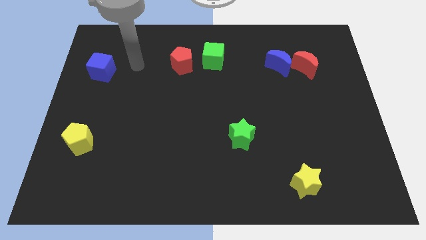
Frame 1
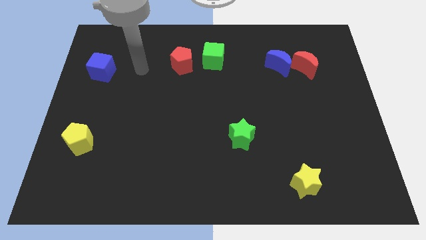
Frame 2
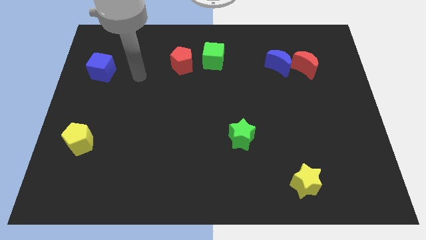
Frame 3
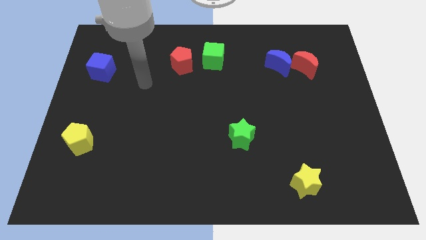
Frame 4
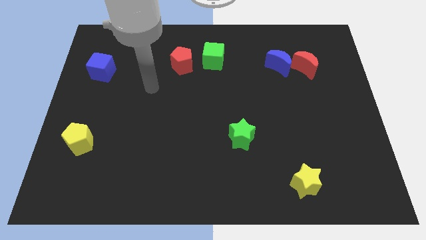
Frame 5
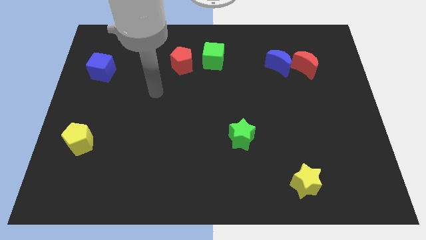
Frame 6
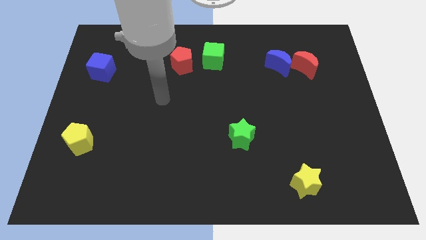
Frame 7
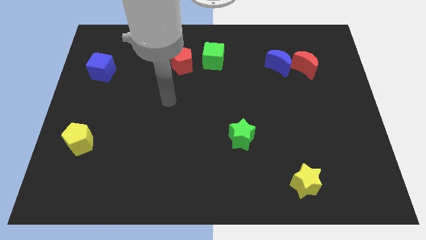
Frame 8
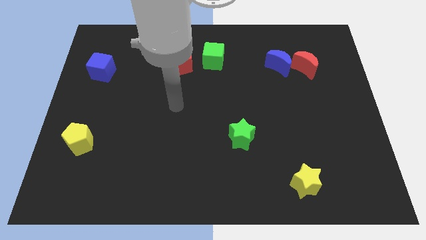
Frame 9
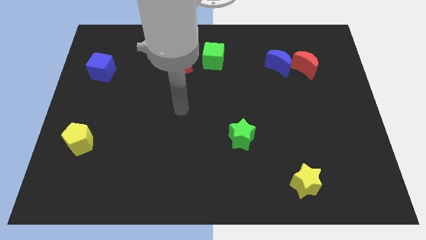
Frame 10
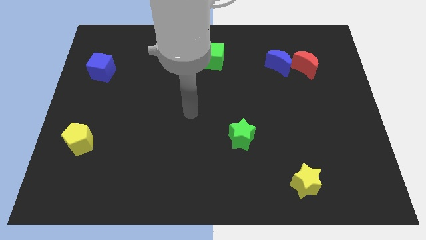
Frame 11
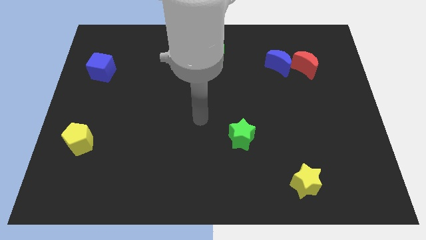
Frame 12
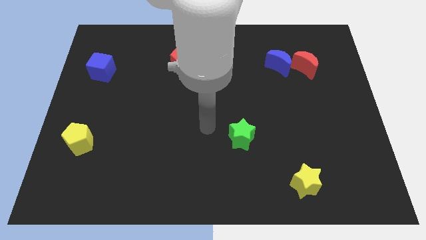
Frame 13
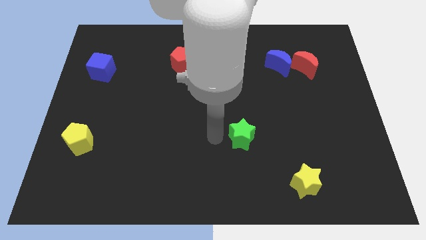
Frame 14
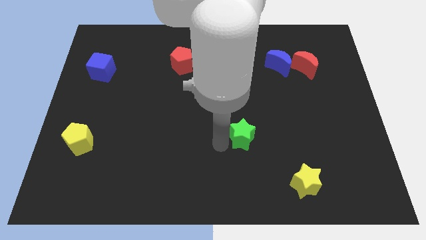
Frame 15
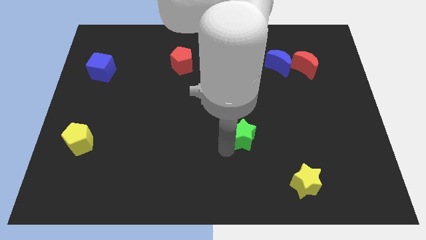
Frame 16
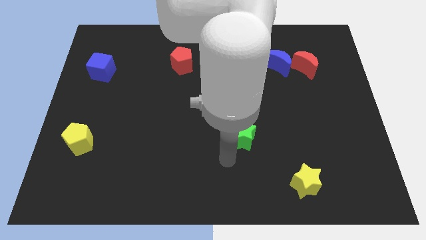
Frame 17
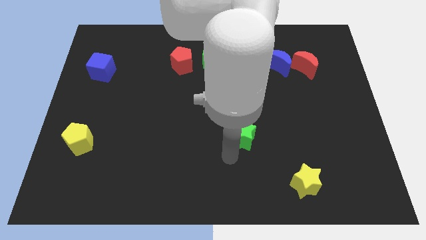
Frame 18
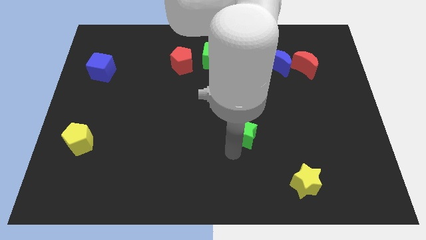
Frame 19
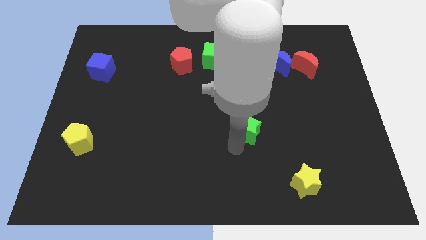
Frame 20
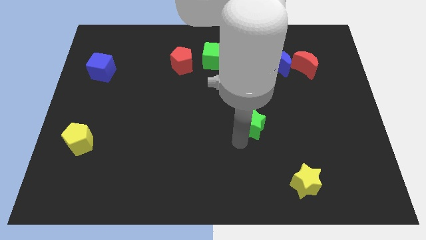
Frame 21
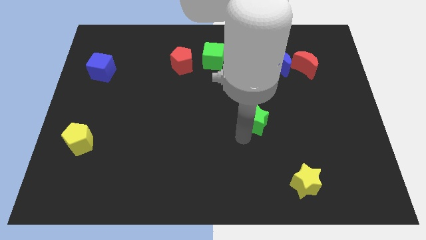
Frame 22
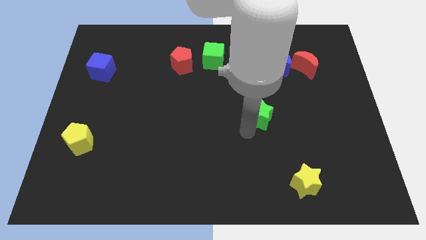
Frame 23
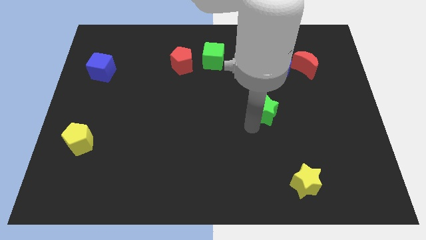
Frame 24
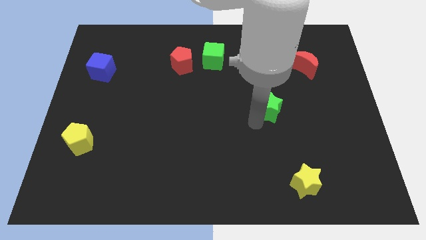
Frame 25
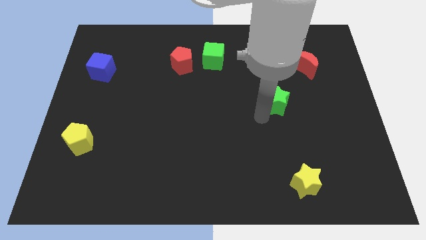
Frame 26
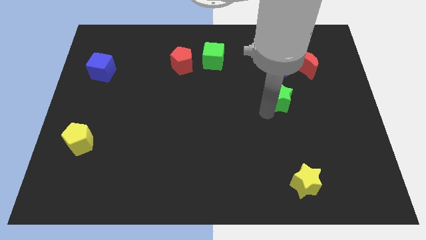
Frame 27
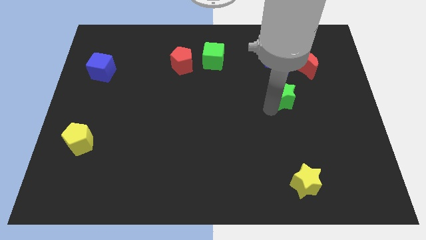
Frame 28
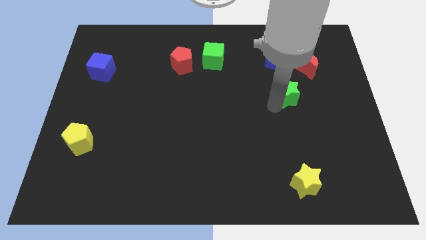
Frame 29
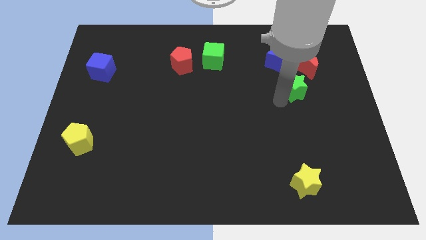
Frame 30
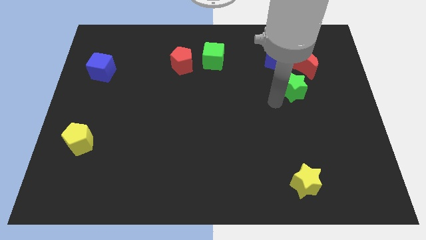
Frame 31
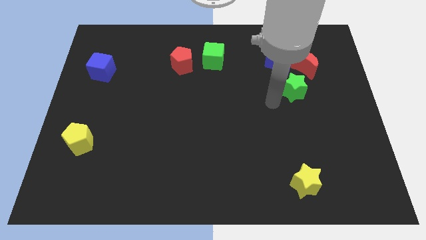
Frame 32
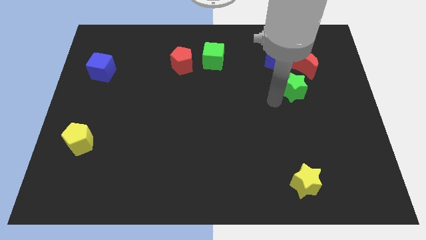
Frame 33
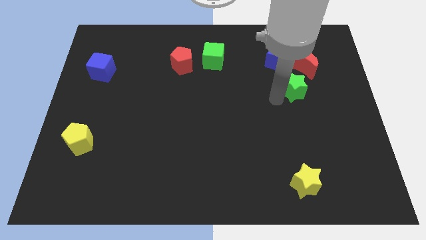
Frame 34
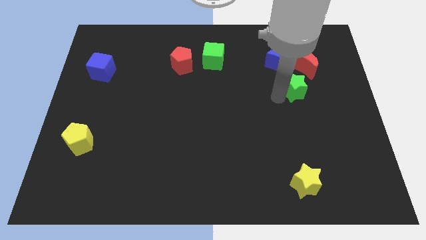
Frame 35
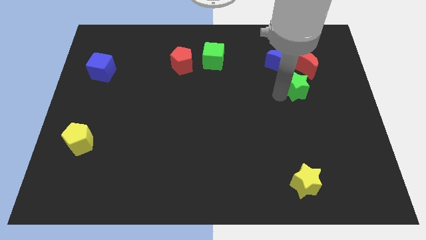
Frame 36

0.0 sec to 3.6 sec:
push the green star up and then right

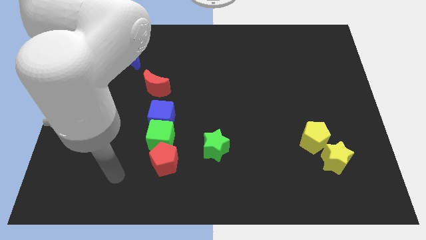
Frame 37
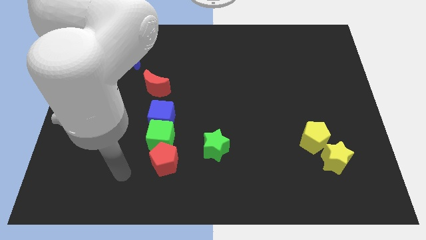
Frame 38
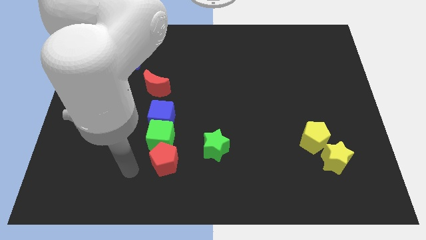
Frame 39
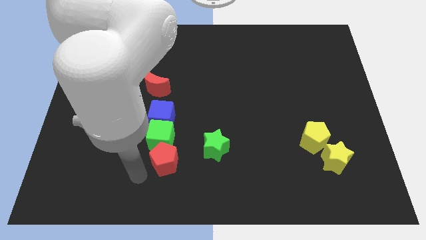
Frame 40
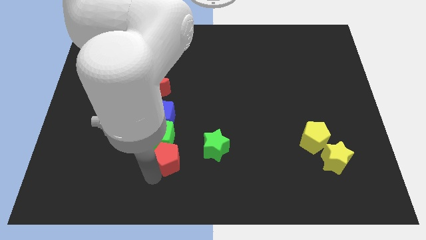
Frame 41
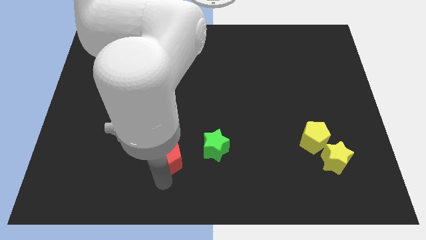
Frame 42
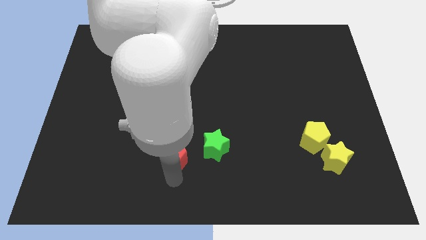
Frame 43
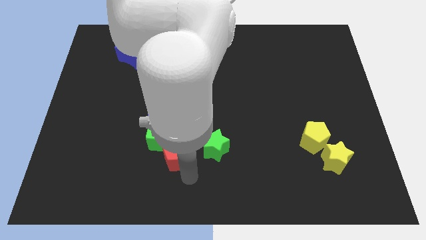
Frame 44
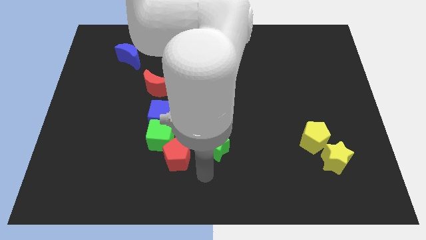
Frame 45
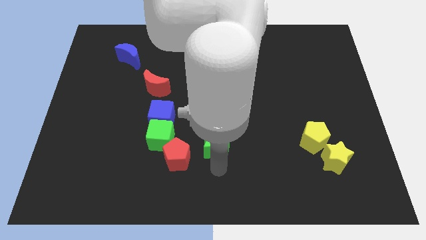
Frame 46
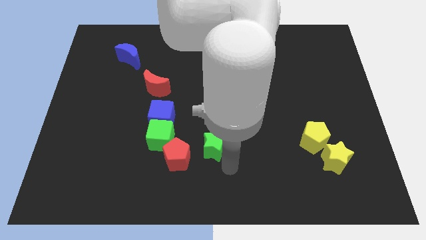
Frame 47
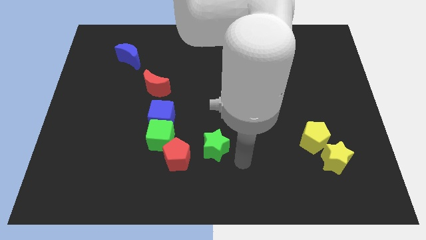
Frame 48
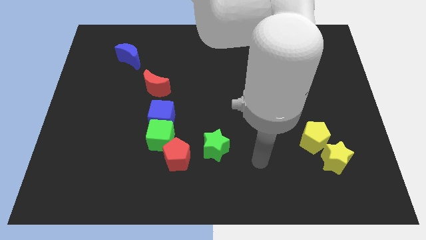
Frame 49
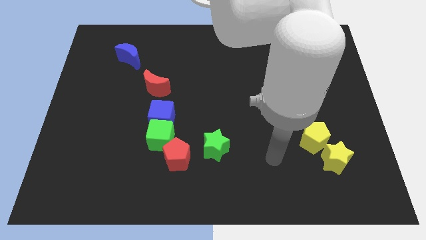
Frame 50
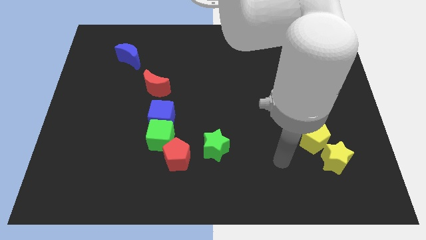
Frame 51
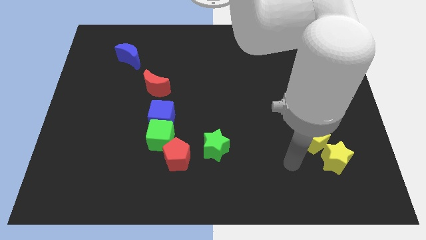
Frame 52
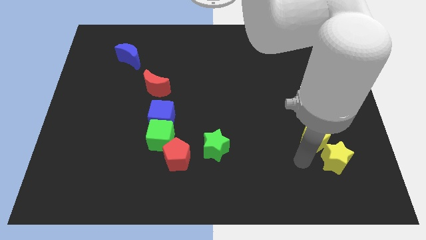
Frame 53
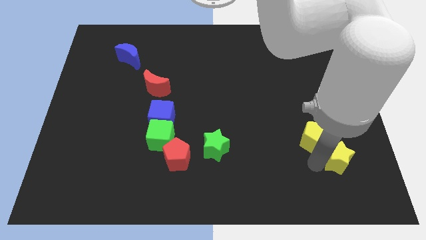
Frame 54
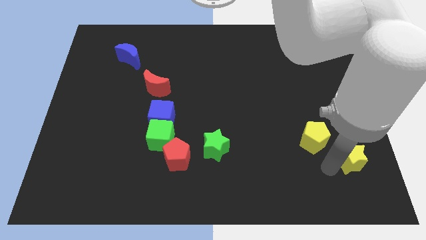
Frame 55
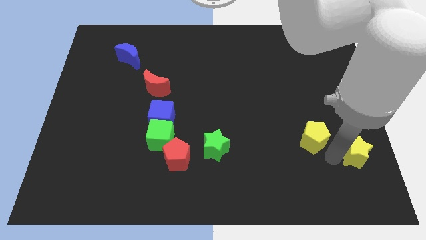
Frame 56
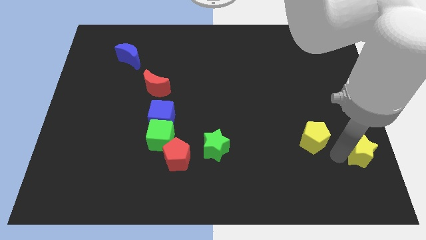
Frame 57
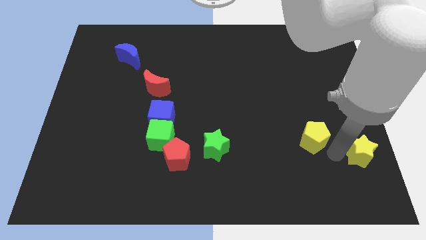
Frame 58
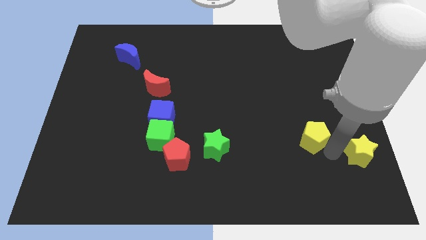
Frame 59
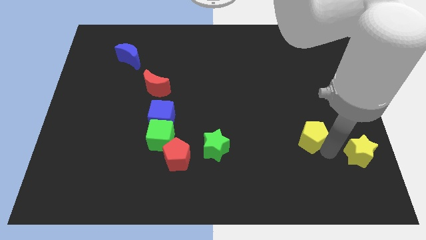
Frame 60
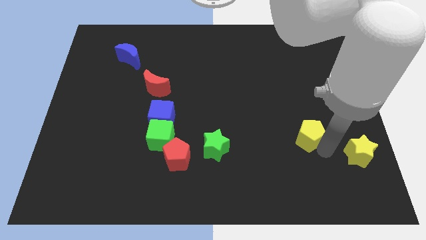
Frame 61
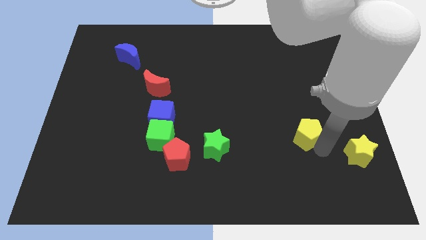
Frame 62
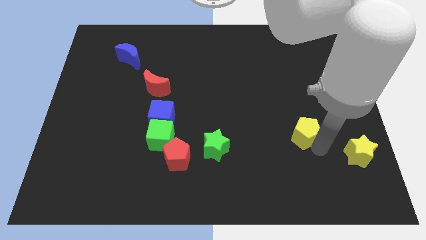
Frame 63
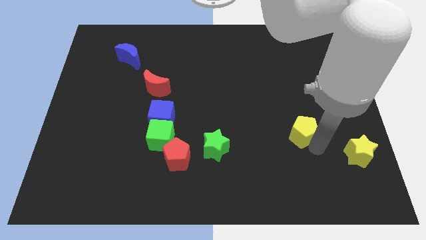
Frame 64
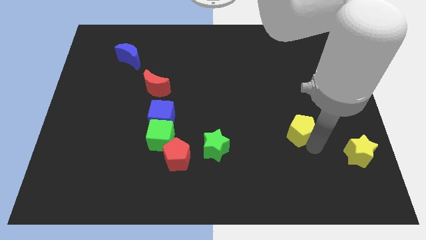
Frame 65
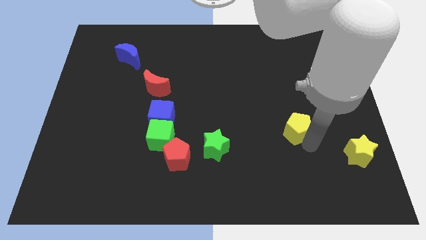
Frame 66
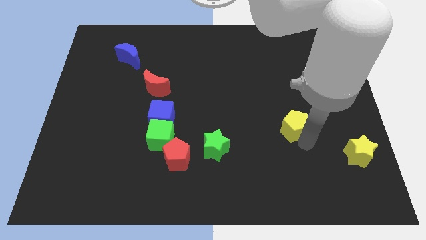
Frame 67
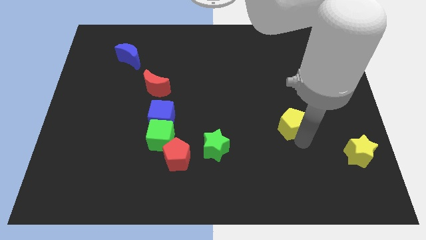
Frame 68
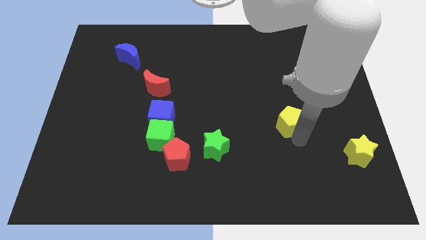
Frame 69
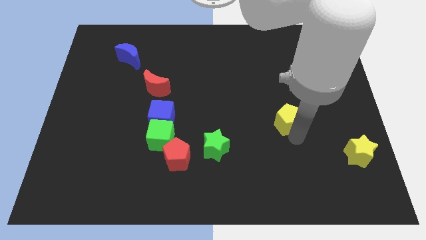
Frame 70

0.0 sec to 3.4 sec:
slightly move the yellow pentagon up and to the left

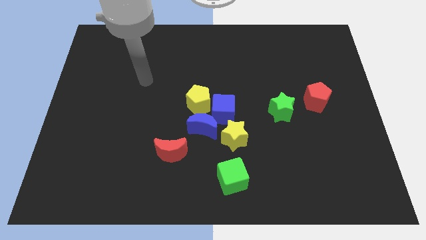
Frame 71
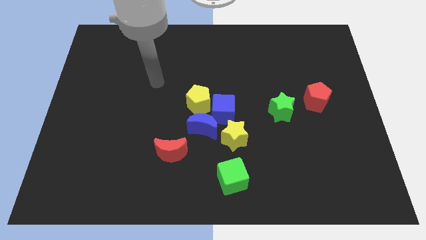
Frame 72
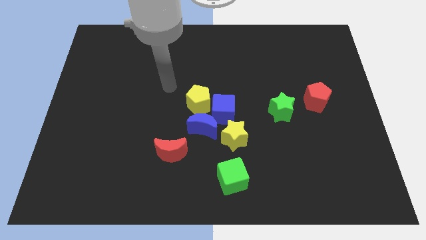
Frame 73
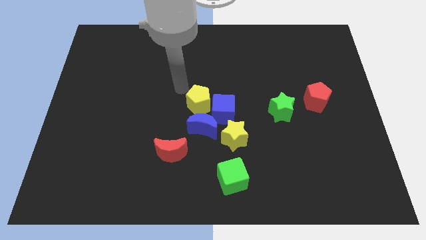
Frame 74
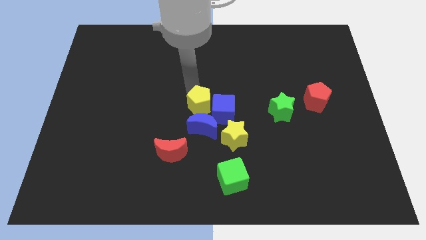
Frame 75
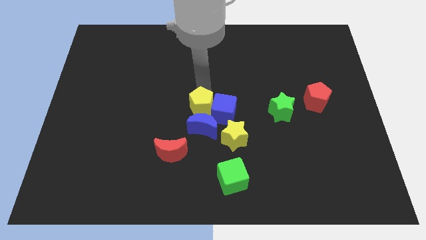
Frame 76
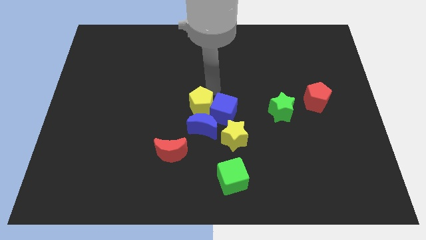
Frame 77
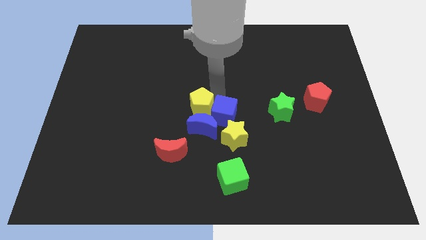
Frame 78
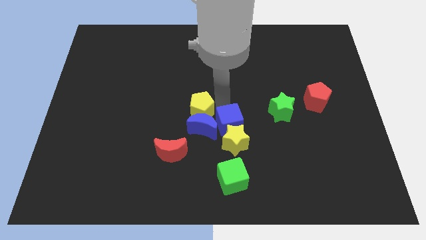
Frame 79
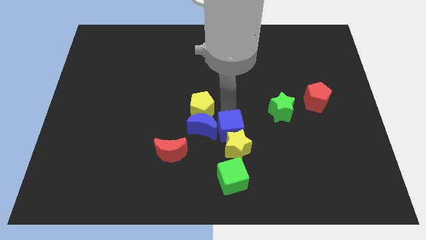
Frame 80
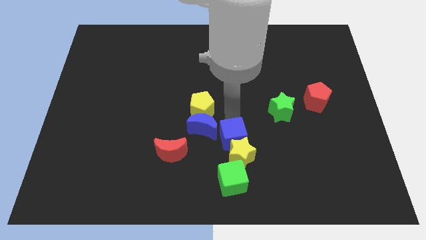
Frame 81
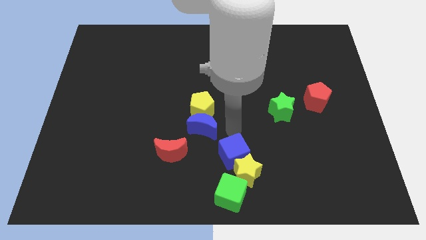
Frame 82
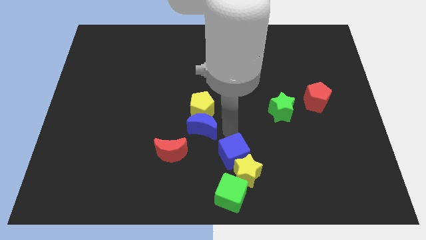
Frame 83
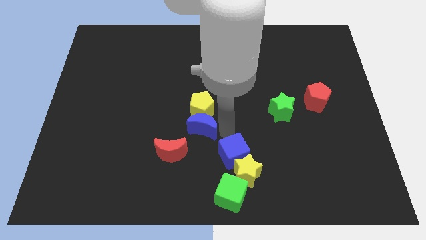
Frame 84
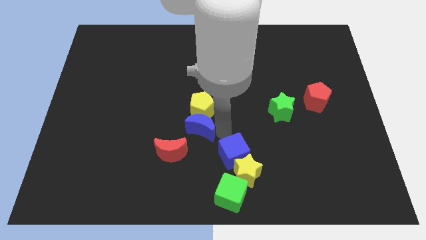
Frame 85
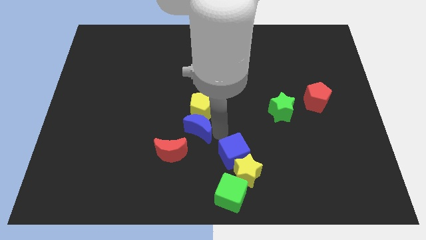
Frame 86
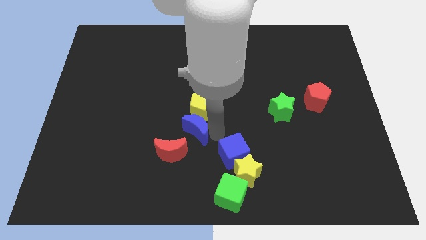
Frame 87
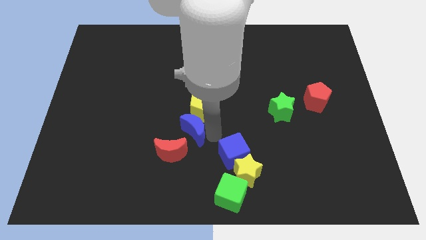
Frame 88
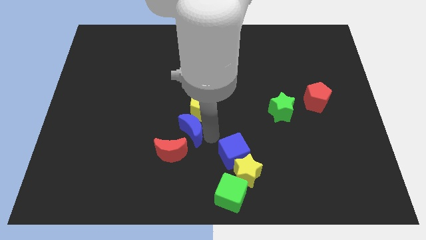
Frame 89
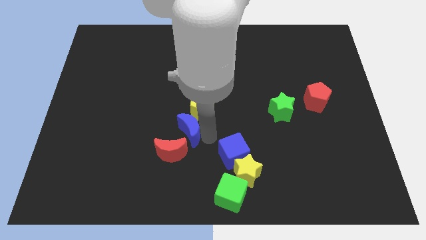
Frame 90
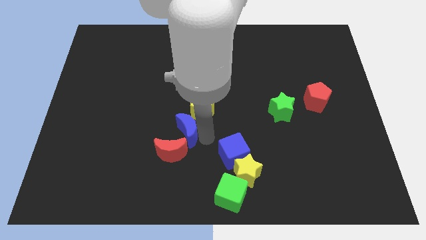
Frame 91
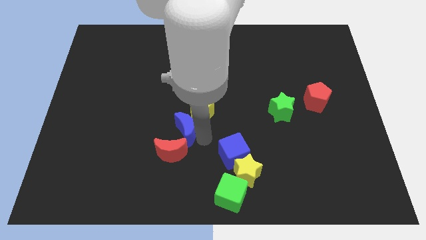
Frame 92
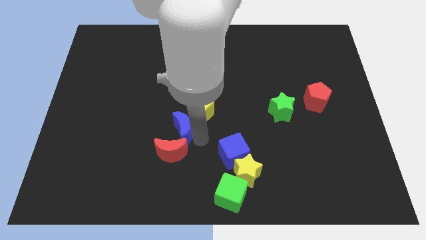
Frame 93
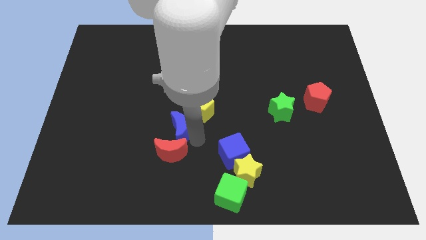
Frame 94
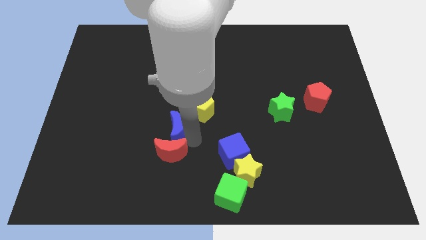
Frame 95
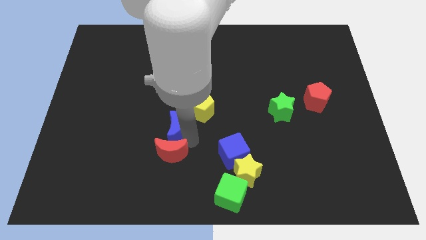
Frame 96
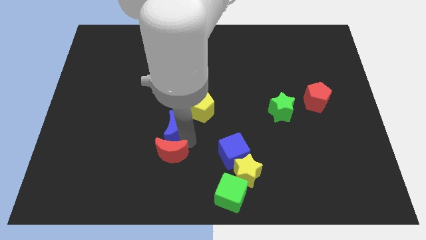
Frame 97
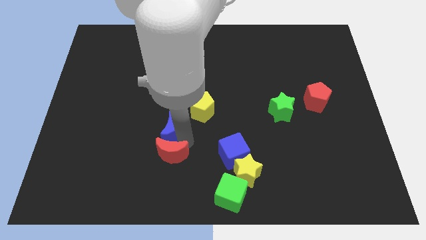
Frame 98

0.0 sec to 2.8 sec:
slide the blue moon to the left a little
